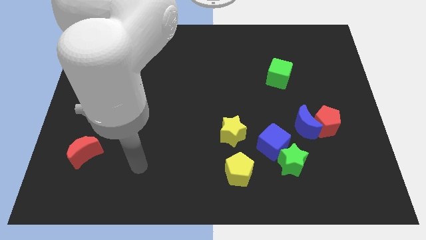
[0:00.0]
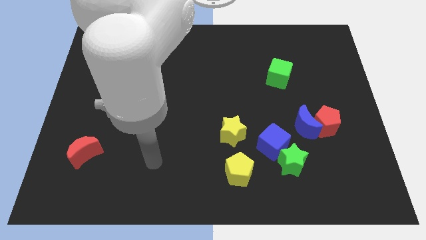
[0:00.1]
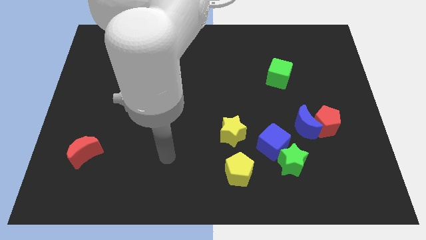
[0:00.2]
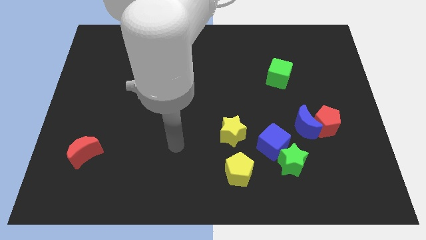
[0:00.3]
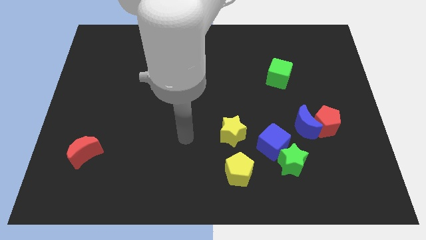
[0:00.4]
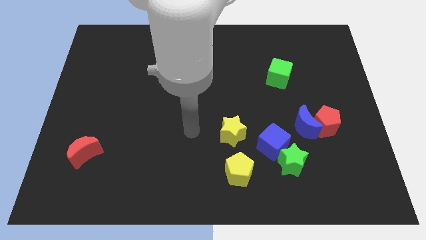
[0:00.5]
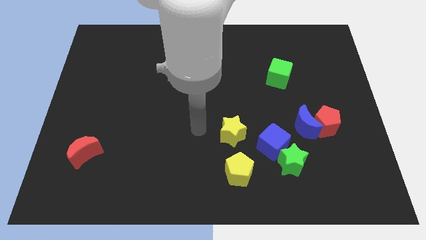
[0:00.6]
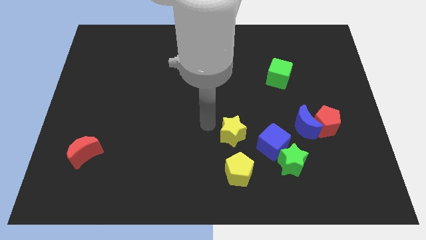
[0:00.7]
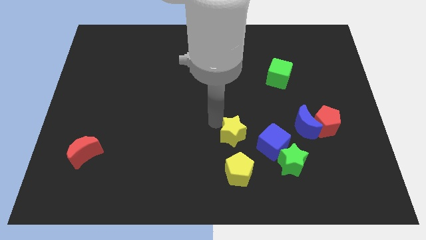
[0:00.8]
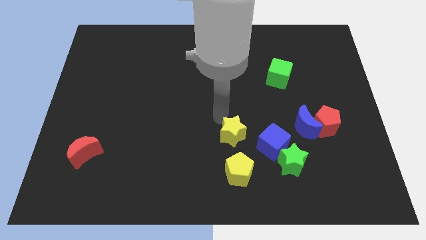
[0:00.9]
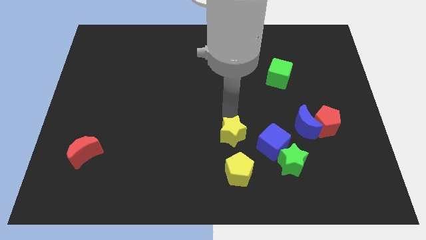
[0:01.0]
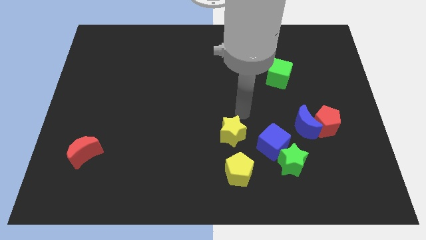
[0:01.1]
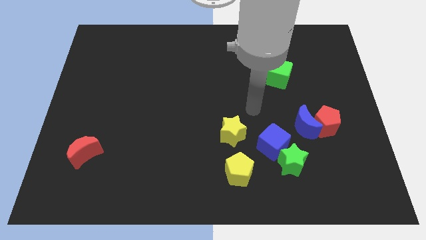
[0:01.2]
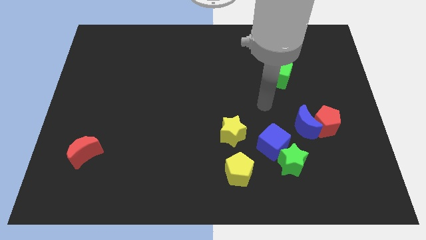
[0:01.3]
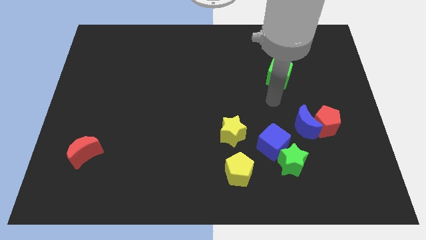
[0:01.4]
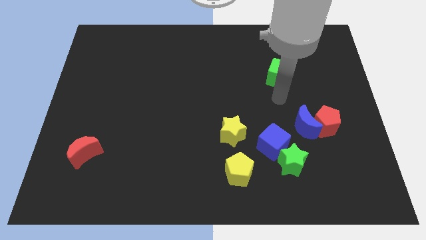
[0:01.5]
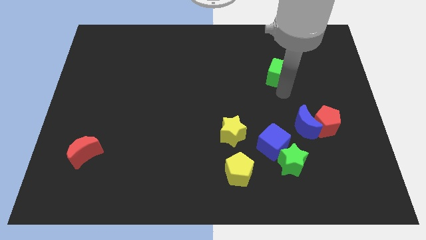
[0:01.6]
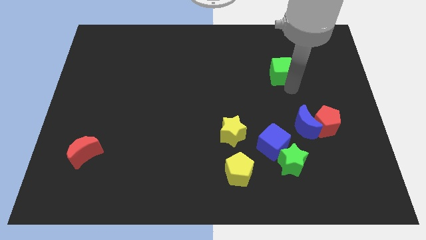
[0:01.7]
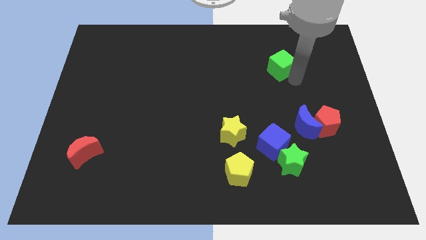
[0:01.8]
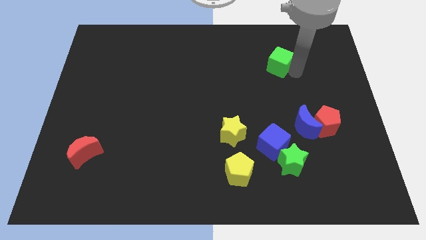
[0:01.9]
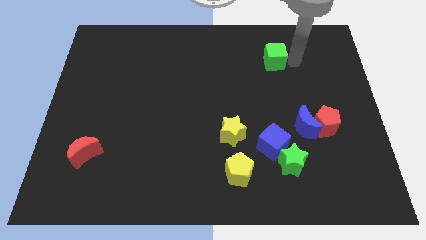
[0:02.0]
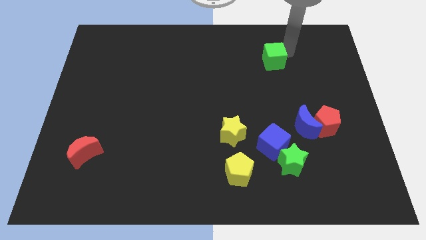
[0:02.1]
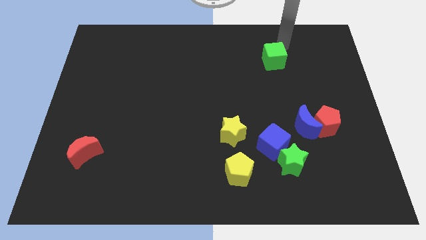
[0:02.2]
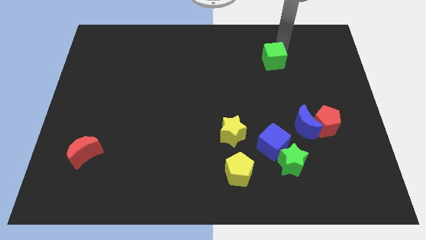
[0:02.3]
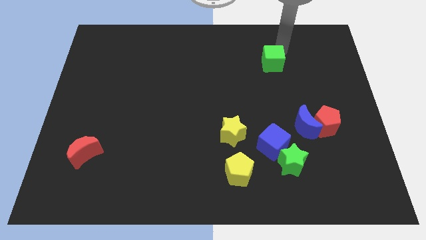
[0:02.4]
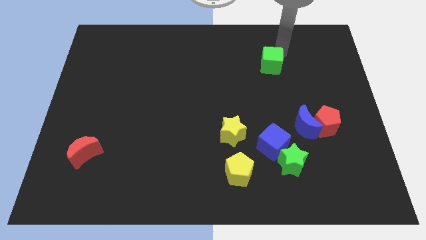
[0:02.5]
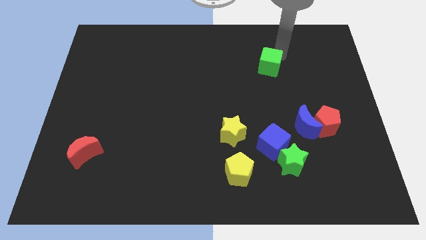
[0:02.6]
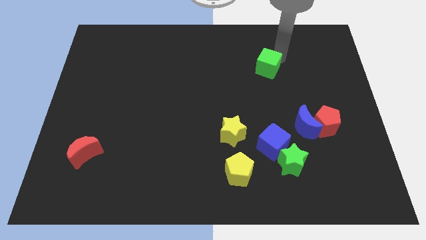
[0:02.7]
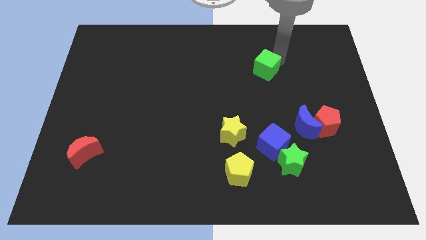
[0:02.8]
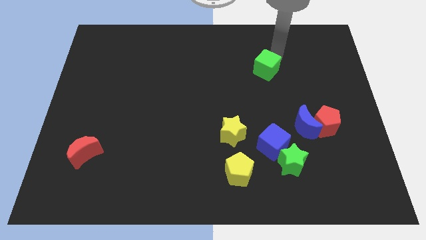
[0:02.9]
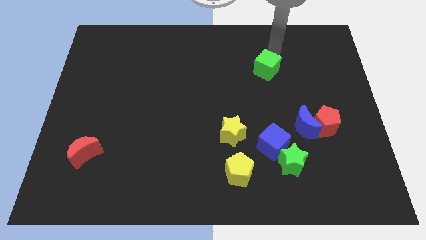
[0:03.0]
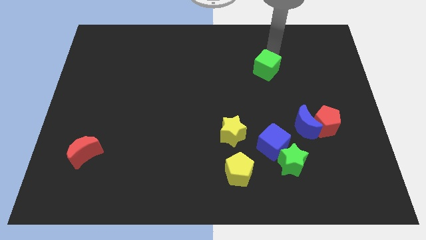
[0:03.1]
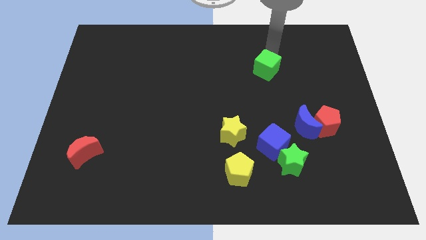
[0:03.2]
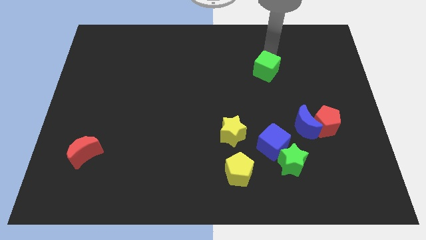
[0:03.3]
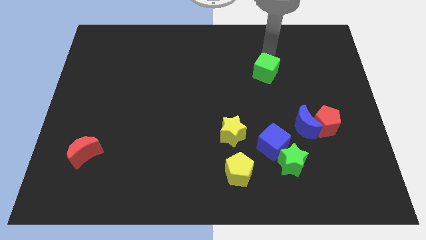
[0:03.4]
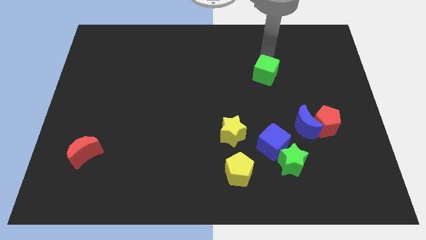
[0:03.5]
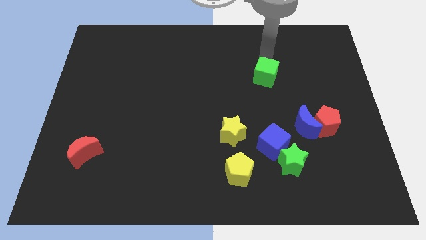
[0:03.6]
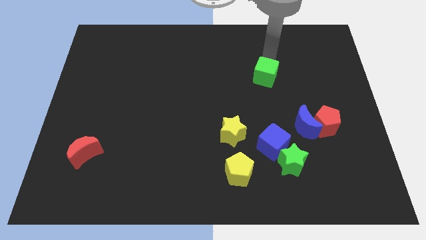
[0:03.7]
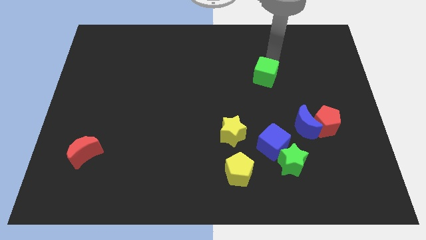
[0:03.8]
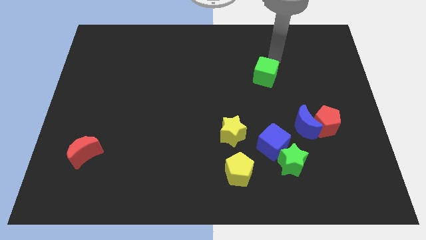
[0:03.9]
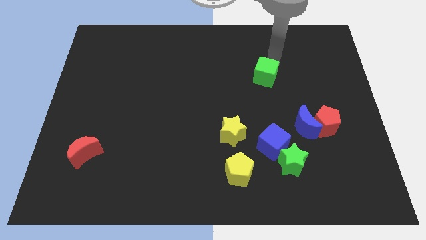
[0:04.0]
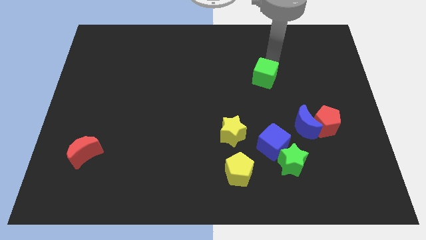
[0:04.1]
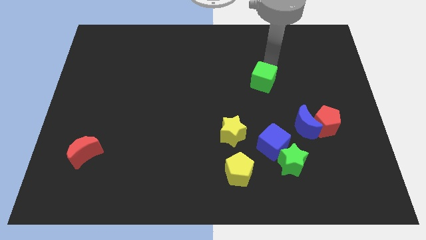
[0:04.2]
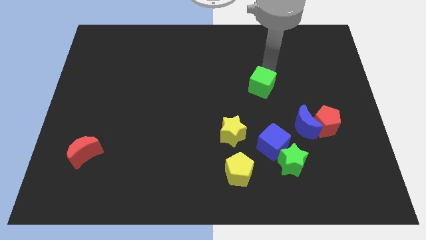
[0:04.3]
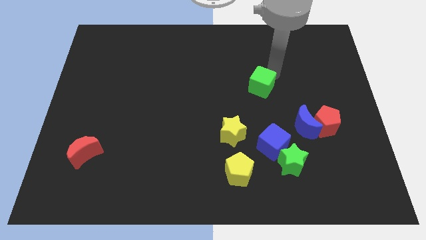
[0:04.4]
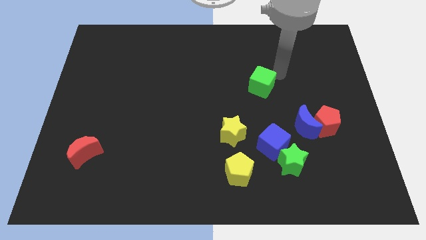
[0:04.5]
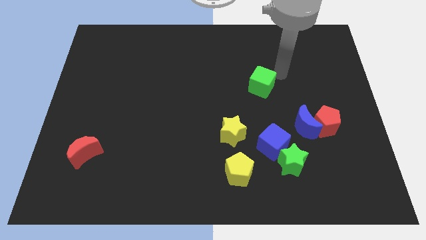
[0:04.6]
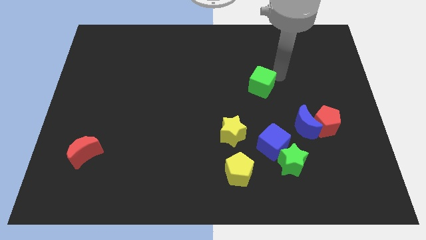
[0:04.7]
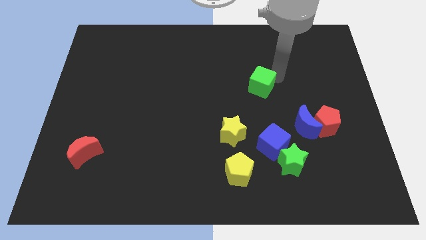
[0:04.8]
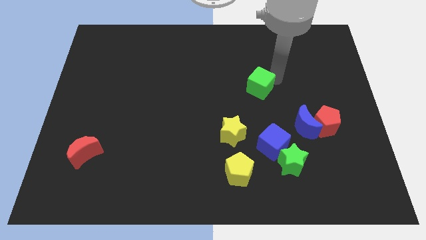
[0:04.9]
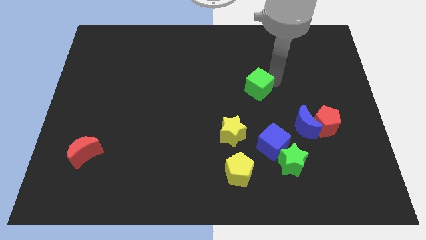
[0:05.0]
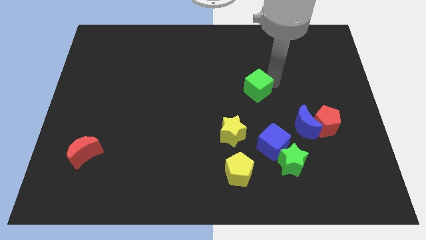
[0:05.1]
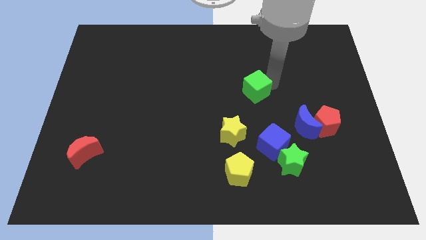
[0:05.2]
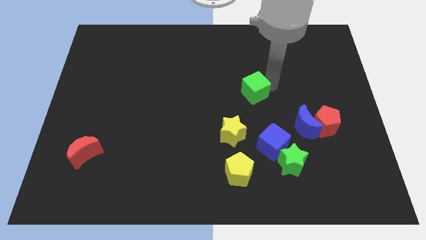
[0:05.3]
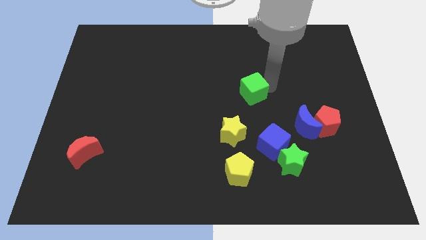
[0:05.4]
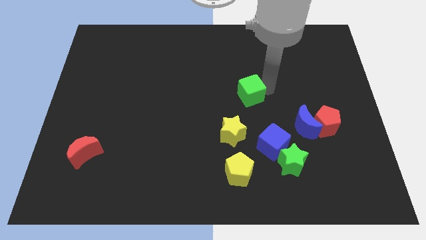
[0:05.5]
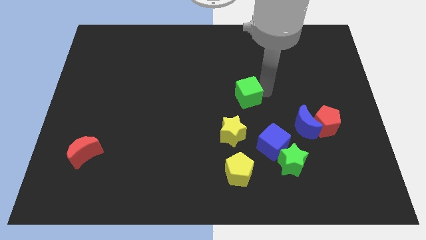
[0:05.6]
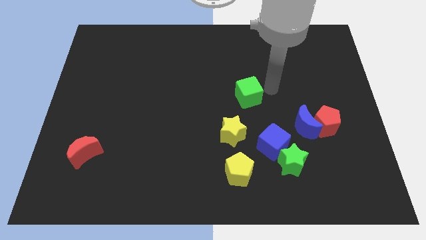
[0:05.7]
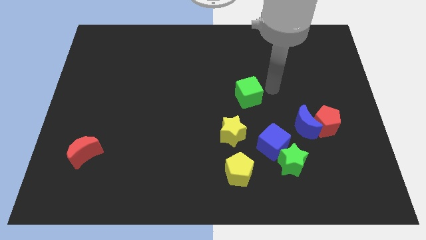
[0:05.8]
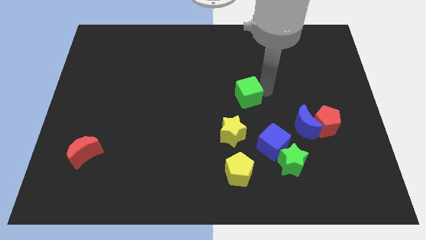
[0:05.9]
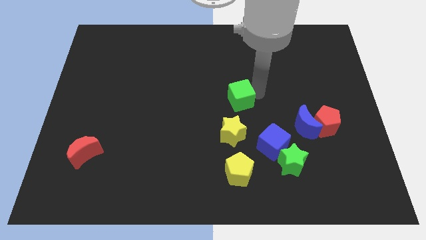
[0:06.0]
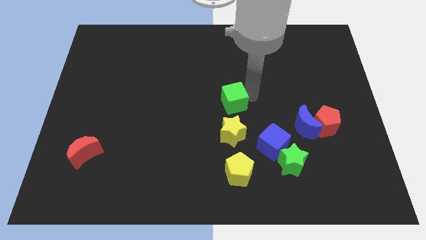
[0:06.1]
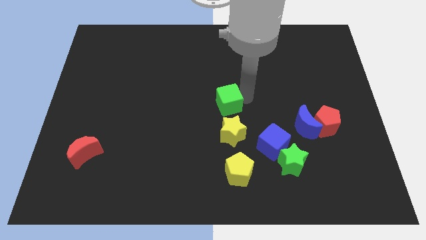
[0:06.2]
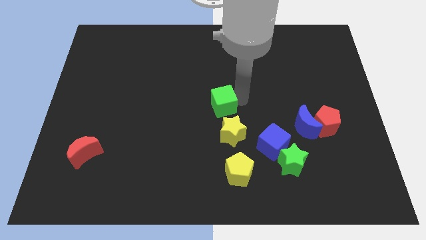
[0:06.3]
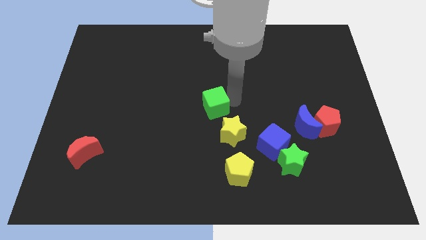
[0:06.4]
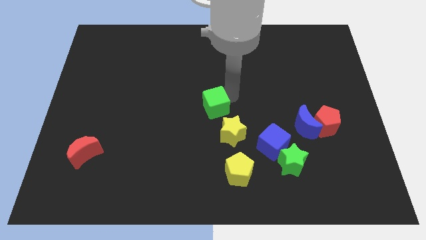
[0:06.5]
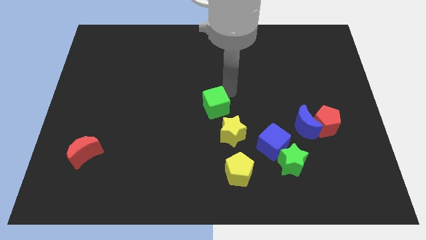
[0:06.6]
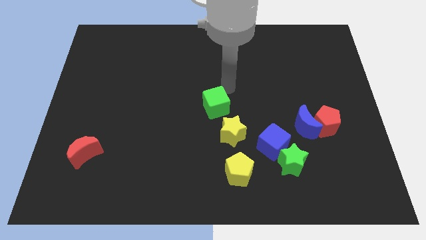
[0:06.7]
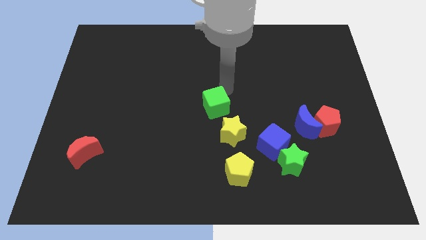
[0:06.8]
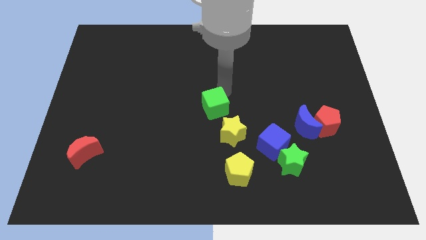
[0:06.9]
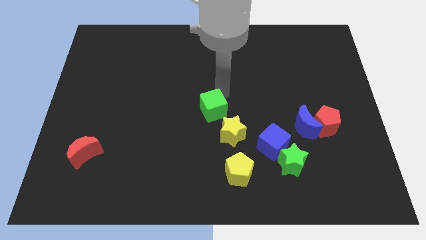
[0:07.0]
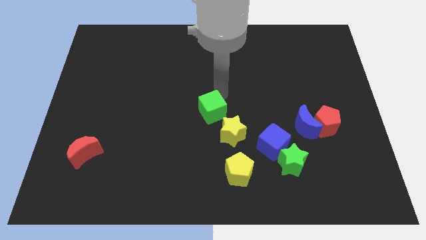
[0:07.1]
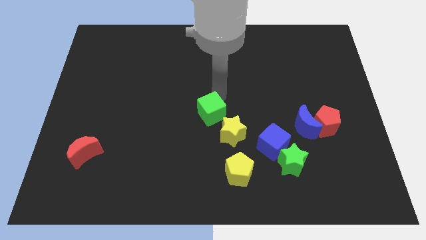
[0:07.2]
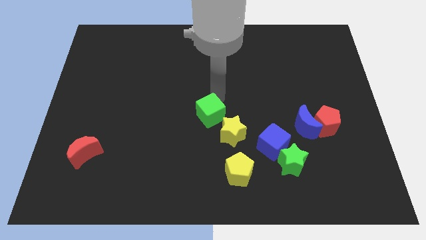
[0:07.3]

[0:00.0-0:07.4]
move the green cube downwards and then to the left

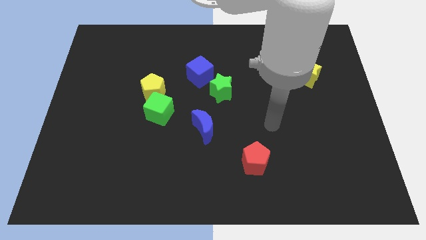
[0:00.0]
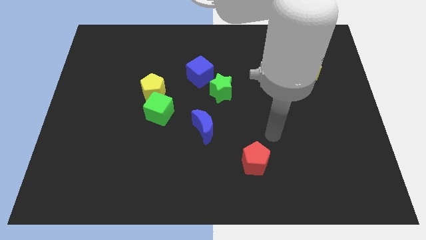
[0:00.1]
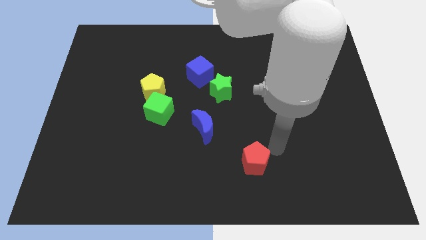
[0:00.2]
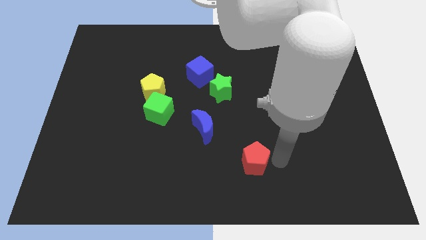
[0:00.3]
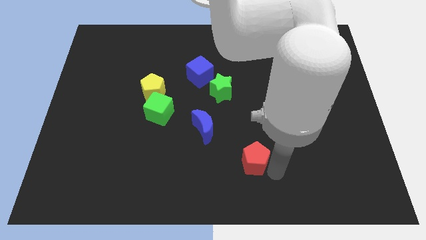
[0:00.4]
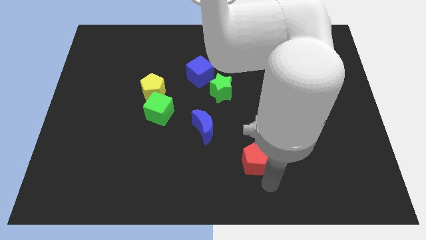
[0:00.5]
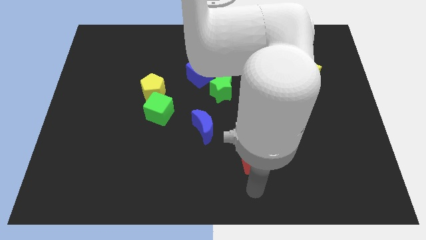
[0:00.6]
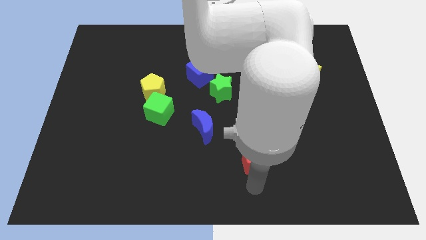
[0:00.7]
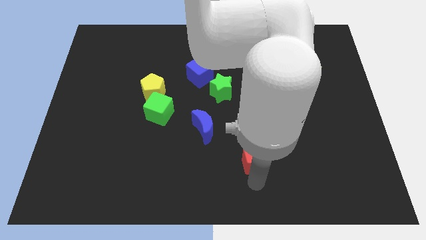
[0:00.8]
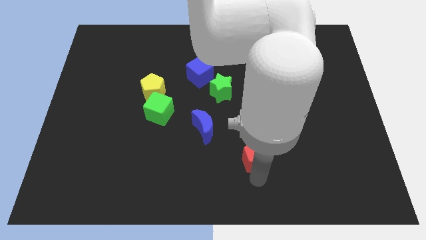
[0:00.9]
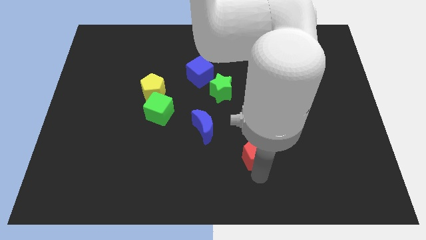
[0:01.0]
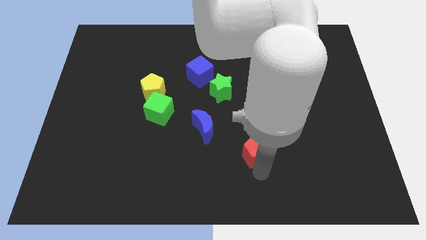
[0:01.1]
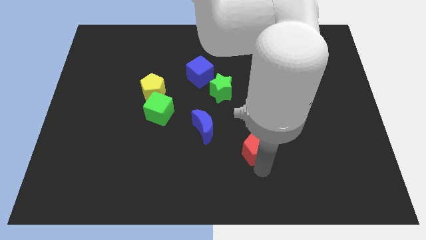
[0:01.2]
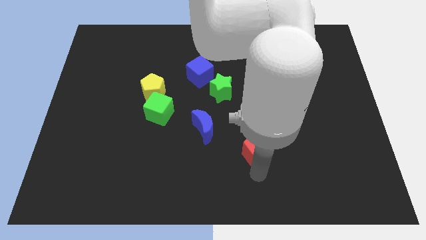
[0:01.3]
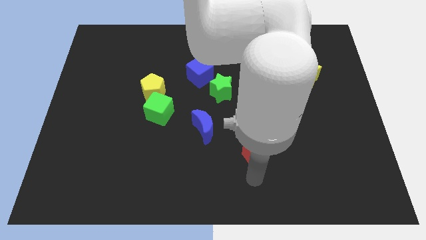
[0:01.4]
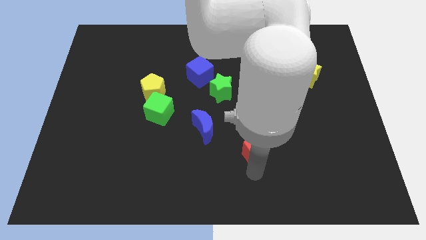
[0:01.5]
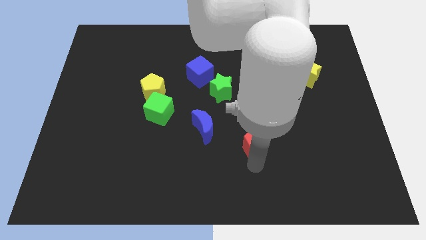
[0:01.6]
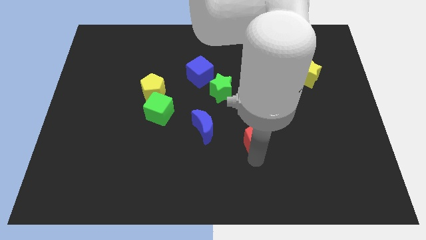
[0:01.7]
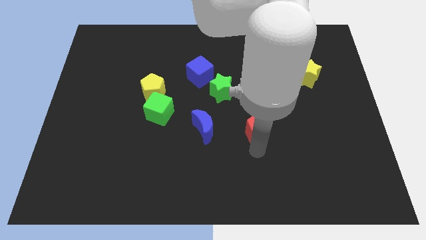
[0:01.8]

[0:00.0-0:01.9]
push the red pentagon slightly up
